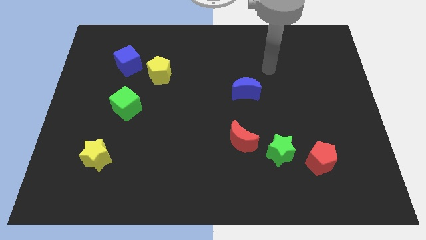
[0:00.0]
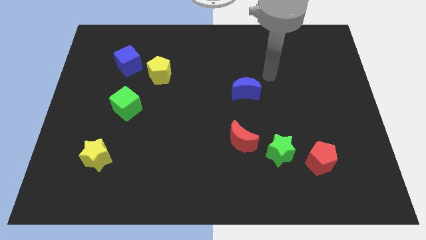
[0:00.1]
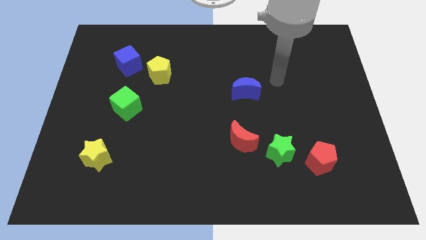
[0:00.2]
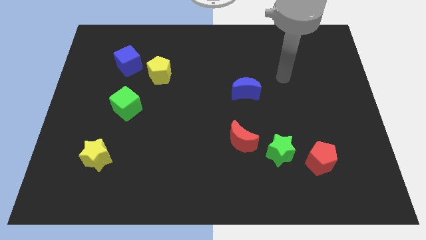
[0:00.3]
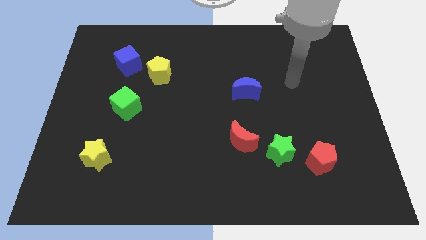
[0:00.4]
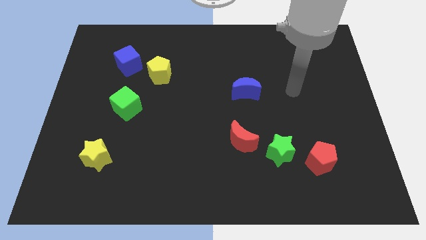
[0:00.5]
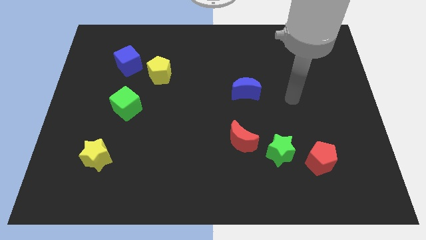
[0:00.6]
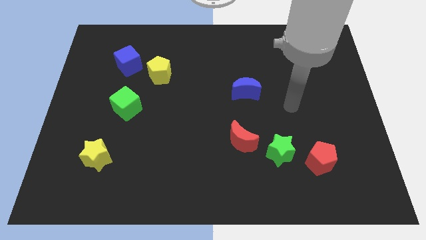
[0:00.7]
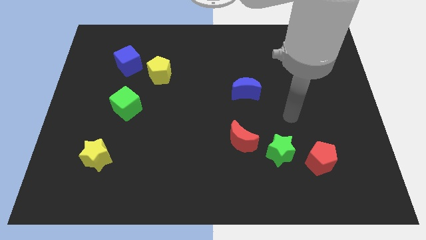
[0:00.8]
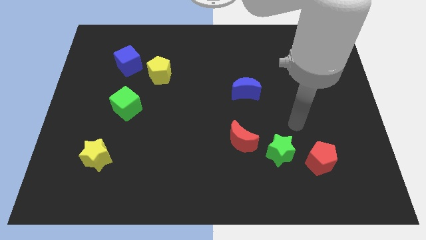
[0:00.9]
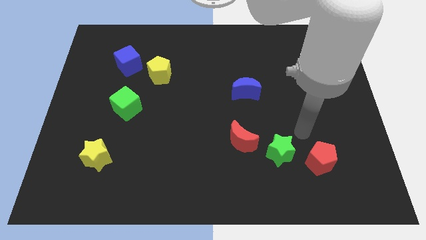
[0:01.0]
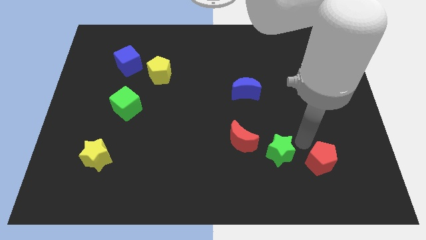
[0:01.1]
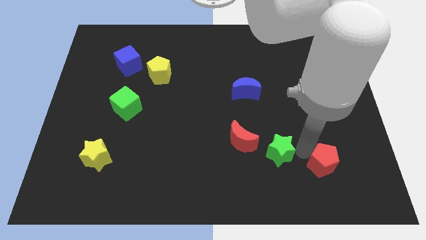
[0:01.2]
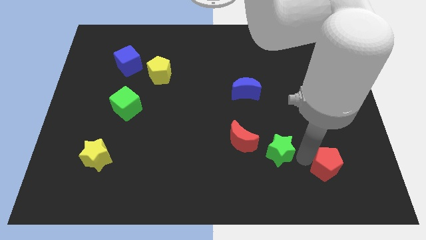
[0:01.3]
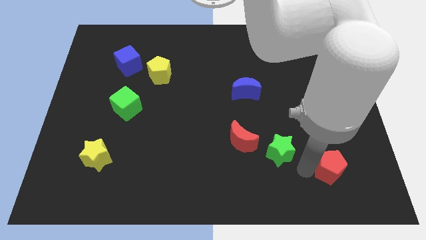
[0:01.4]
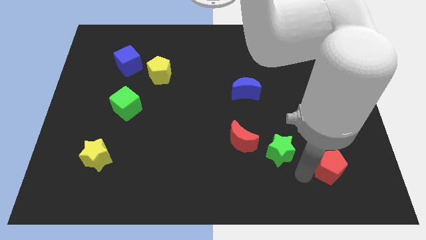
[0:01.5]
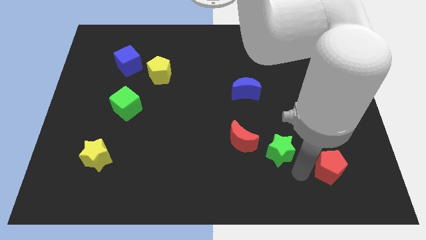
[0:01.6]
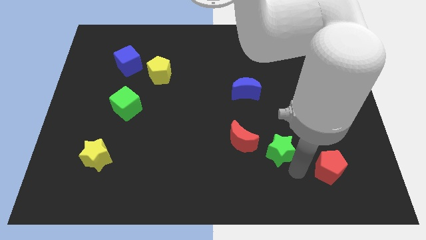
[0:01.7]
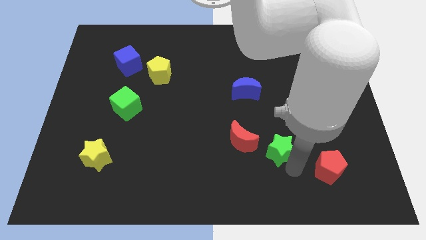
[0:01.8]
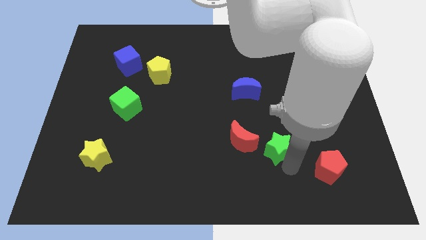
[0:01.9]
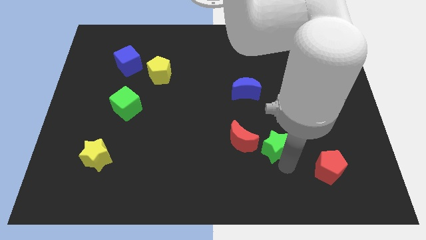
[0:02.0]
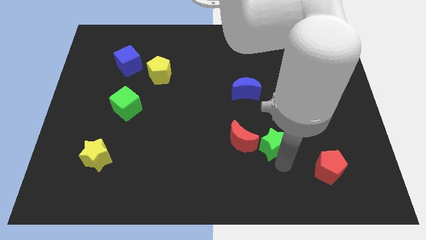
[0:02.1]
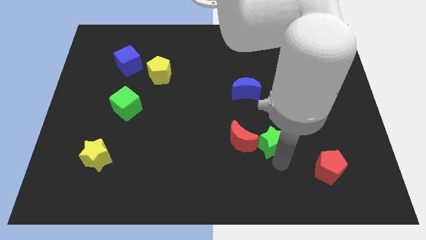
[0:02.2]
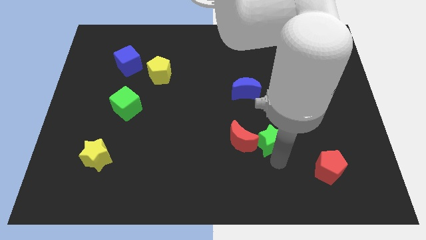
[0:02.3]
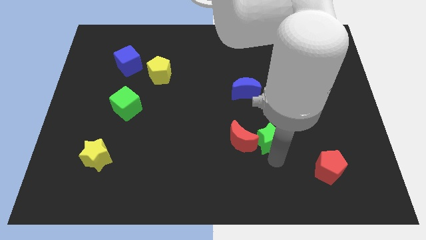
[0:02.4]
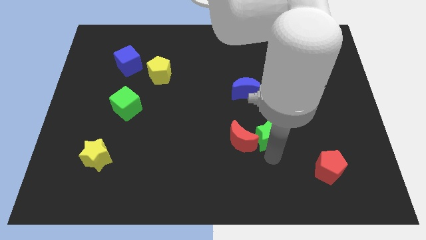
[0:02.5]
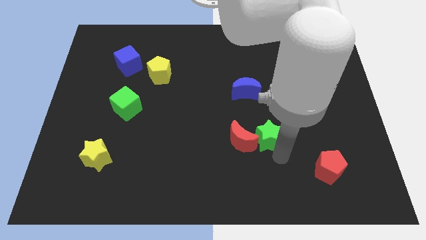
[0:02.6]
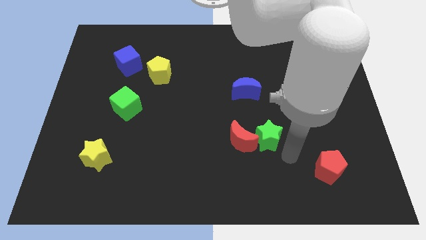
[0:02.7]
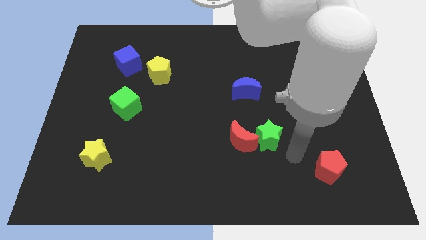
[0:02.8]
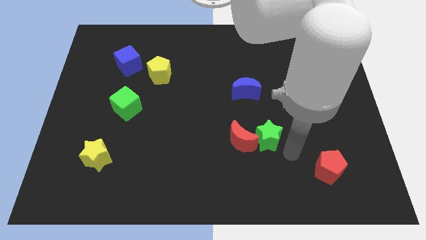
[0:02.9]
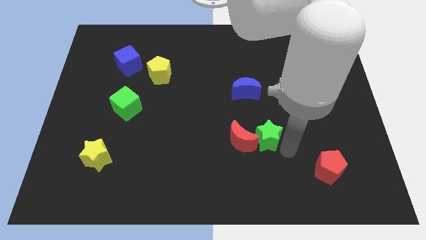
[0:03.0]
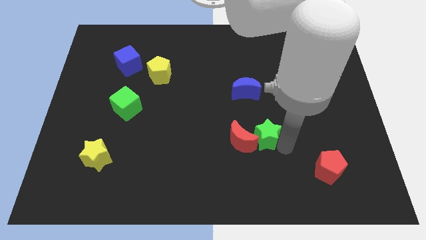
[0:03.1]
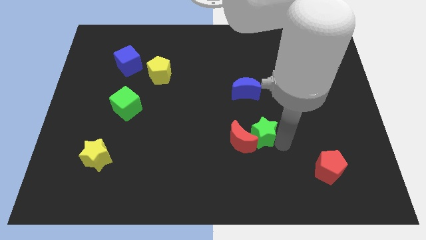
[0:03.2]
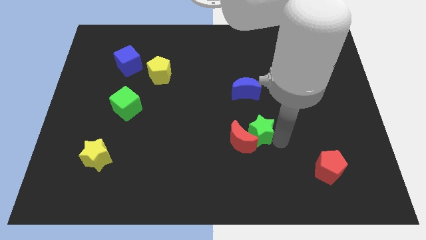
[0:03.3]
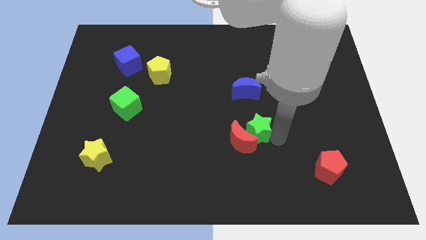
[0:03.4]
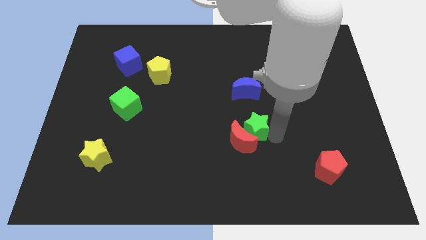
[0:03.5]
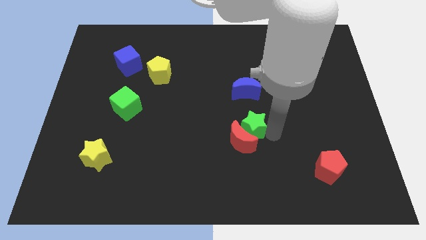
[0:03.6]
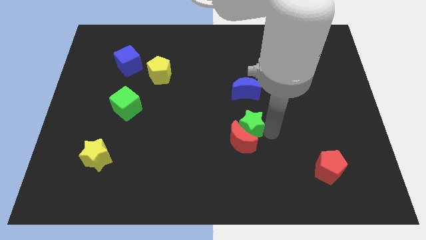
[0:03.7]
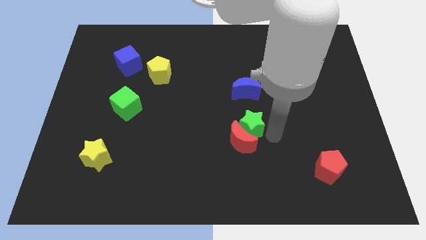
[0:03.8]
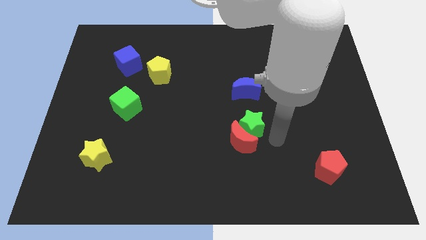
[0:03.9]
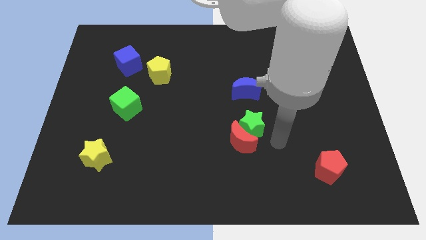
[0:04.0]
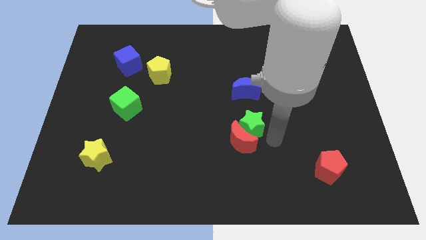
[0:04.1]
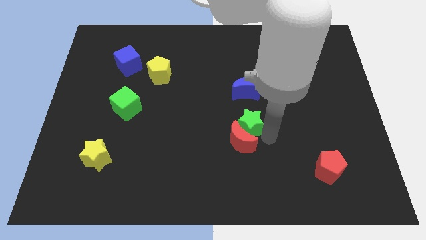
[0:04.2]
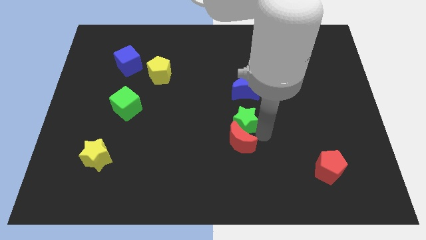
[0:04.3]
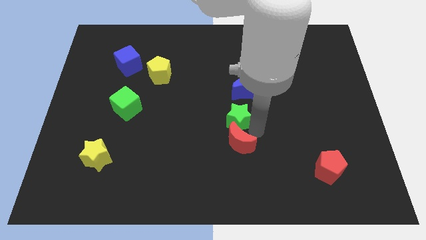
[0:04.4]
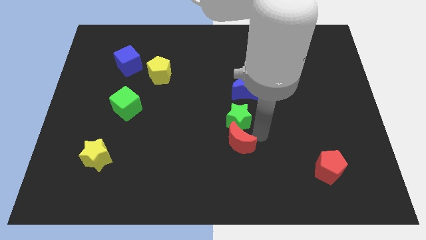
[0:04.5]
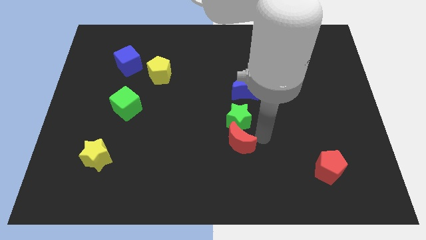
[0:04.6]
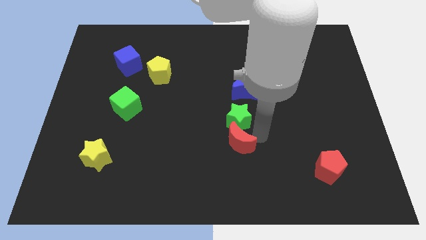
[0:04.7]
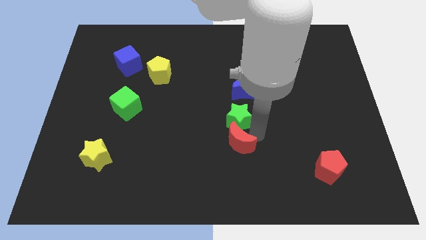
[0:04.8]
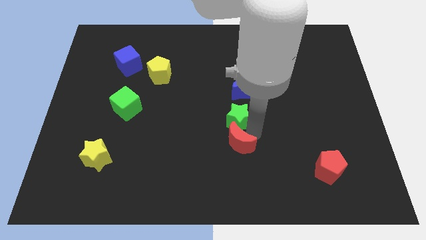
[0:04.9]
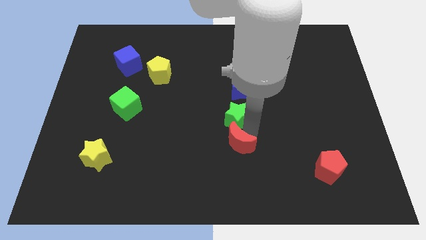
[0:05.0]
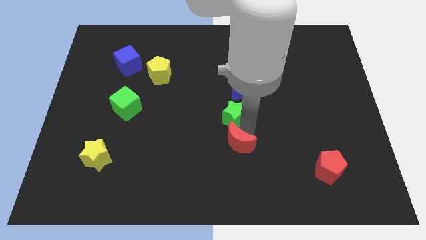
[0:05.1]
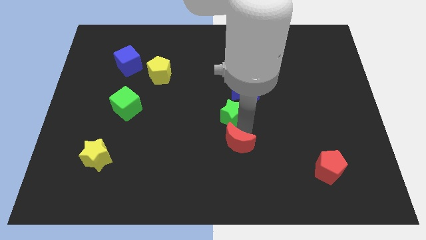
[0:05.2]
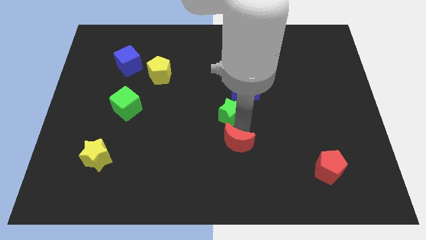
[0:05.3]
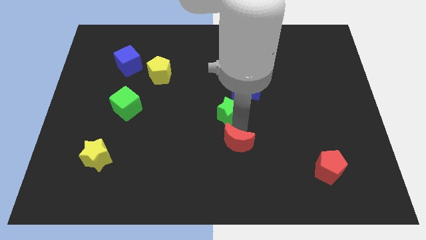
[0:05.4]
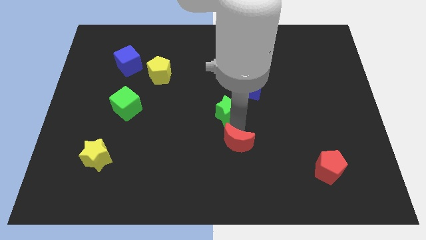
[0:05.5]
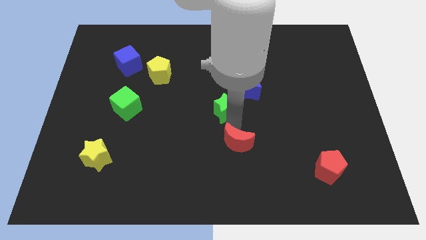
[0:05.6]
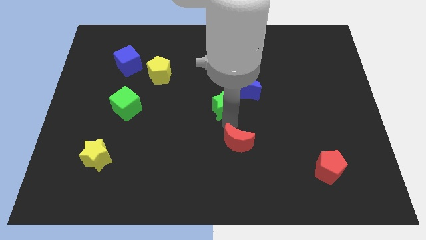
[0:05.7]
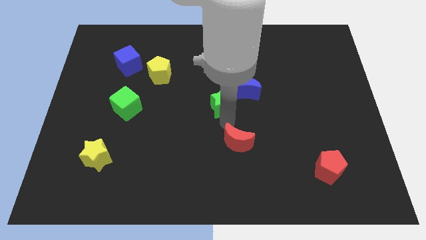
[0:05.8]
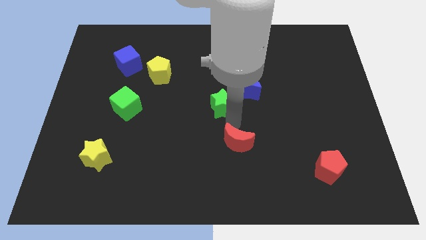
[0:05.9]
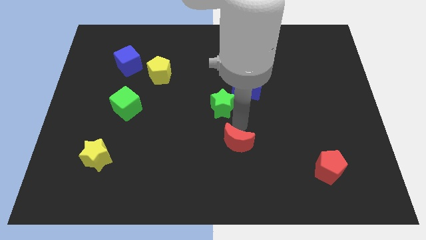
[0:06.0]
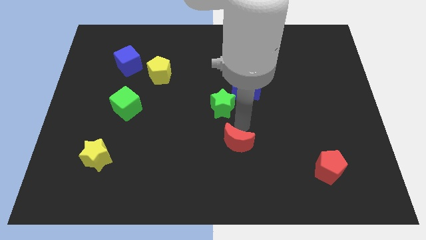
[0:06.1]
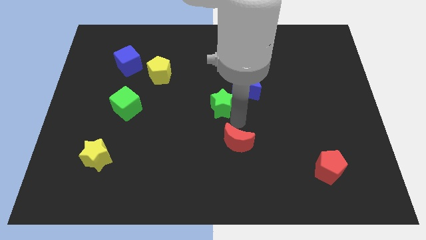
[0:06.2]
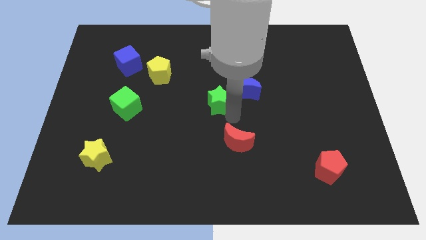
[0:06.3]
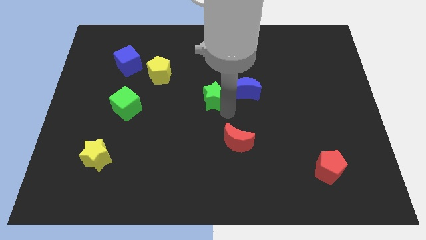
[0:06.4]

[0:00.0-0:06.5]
slide the green star upwards and then left

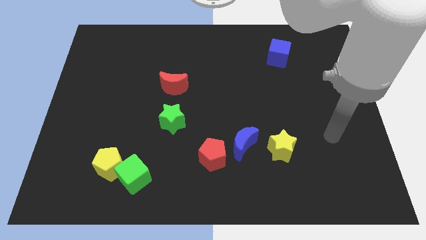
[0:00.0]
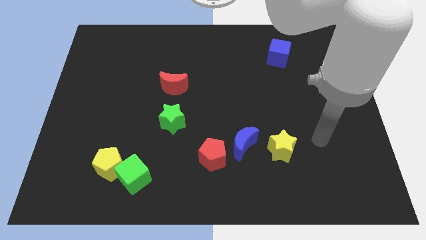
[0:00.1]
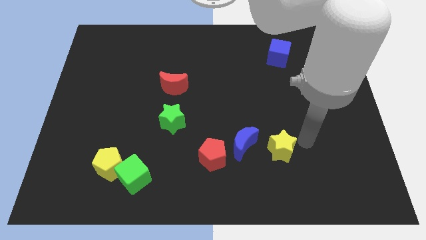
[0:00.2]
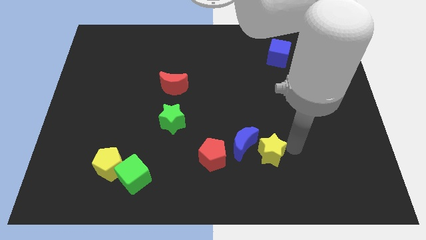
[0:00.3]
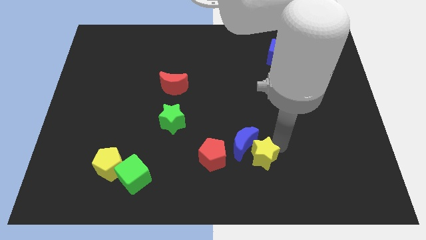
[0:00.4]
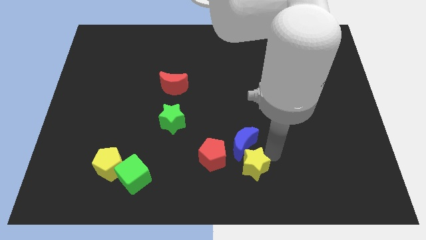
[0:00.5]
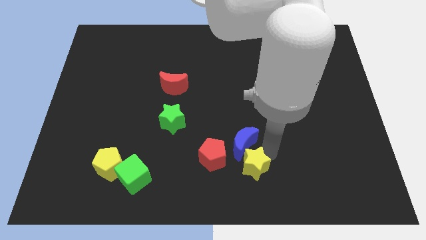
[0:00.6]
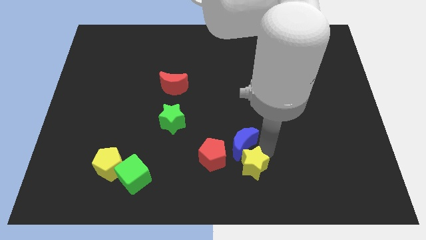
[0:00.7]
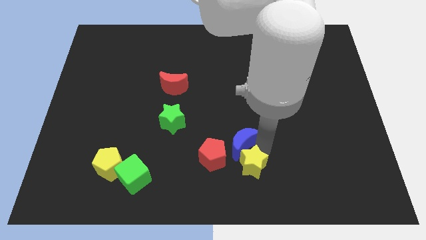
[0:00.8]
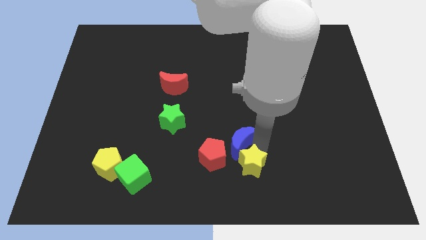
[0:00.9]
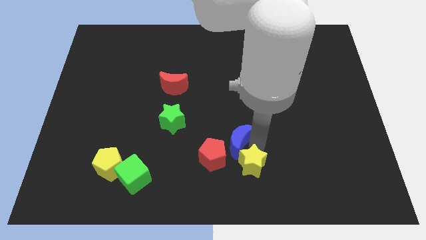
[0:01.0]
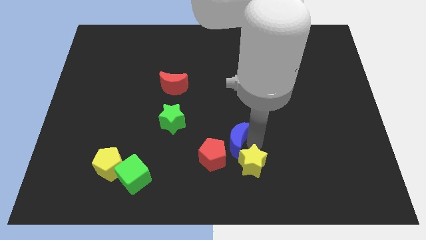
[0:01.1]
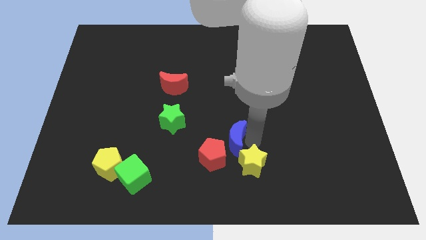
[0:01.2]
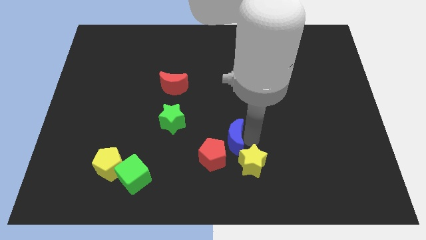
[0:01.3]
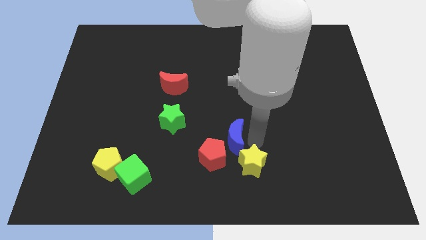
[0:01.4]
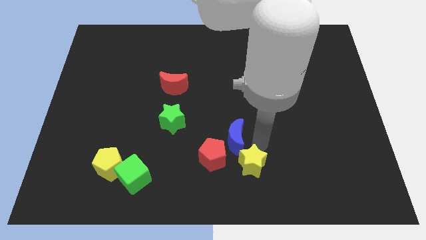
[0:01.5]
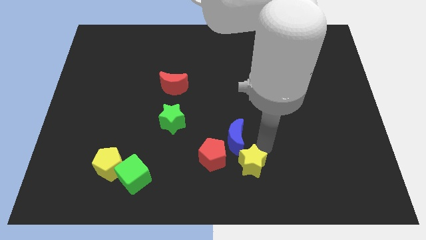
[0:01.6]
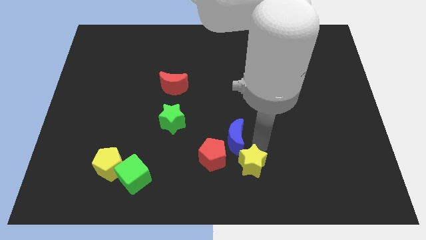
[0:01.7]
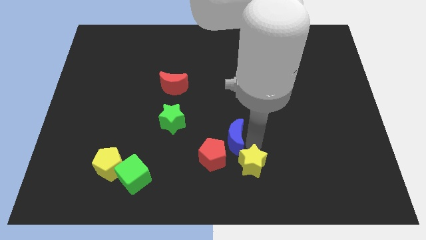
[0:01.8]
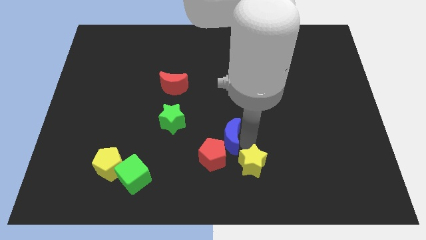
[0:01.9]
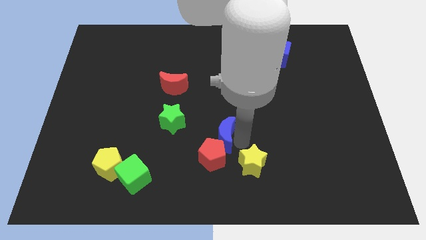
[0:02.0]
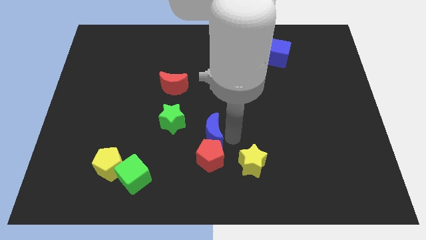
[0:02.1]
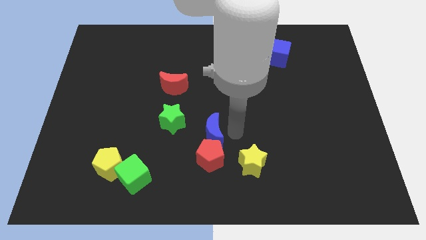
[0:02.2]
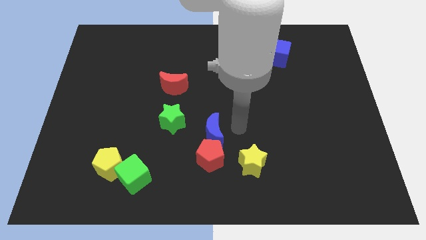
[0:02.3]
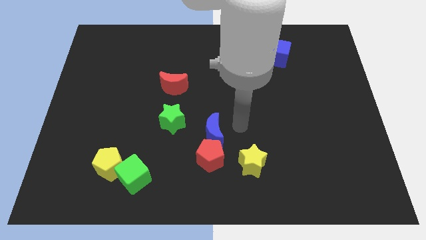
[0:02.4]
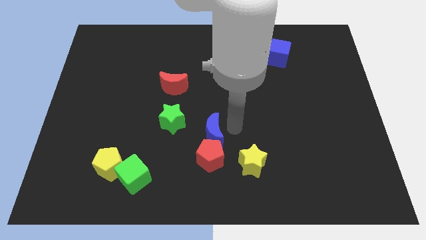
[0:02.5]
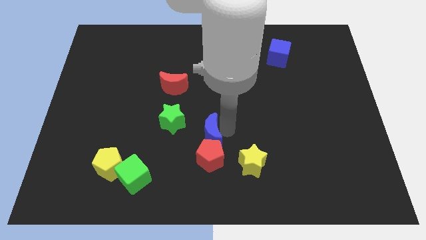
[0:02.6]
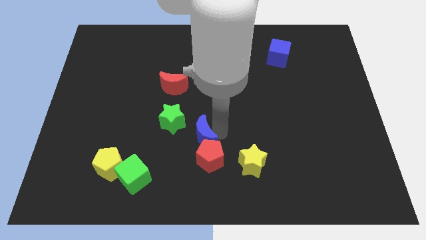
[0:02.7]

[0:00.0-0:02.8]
slide the blue moon a little to the left
